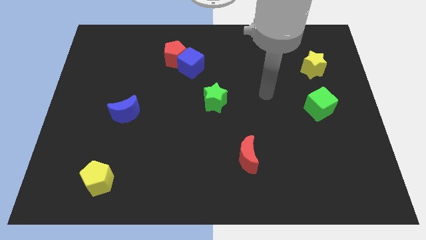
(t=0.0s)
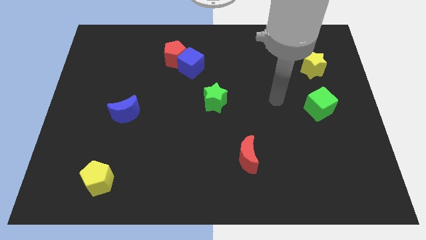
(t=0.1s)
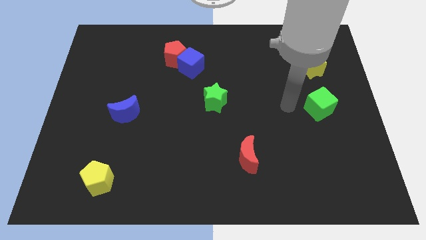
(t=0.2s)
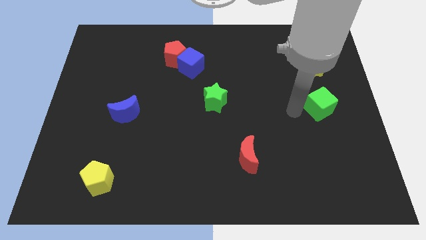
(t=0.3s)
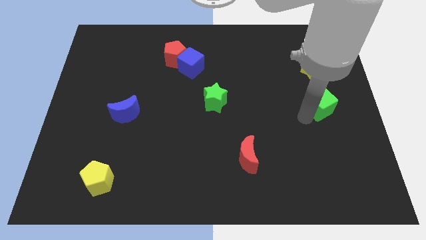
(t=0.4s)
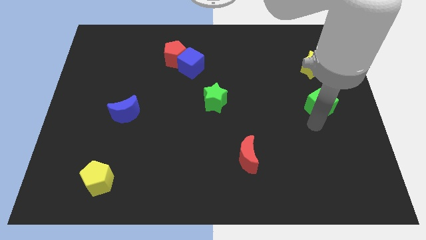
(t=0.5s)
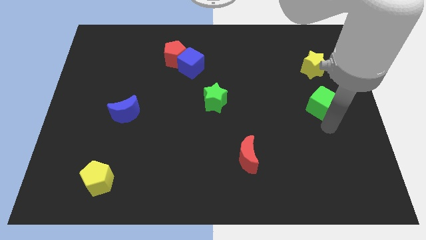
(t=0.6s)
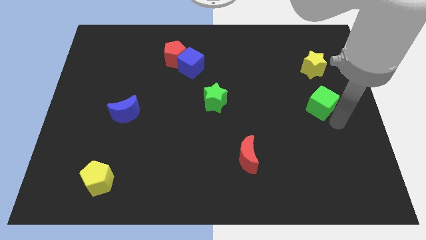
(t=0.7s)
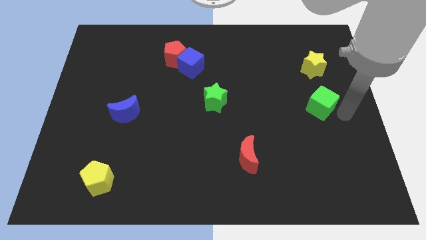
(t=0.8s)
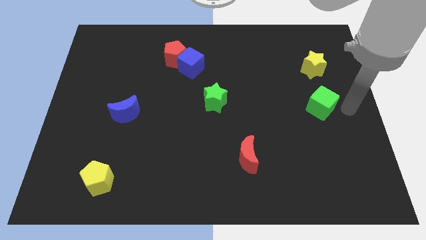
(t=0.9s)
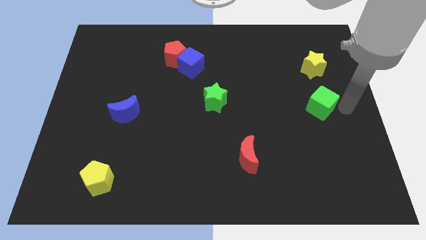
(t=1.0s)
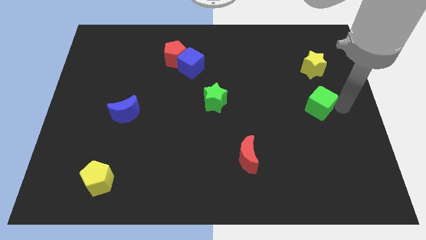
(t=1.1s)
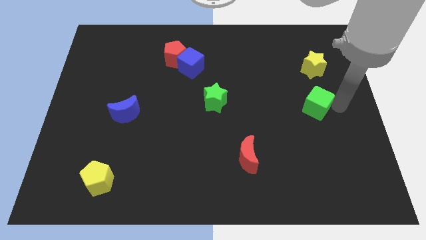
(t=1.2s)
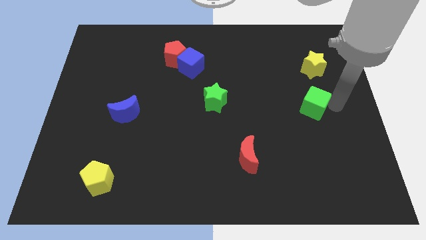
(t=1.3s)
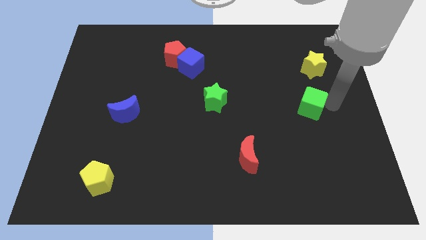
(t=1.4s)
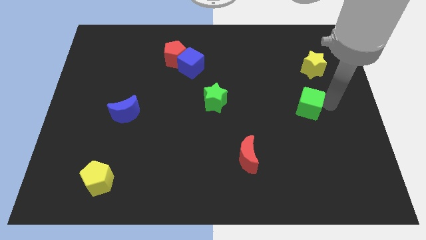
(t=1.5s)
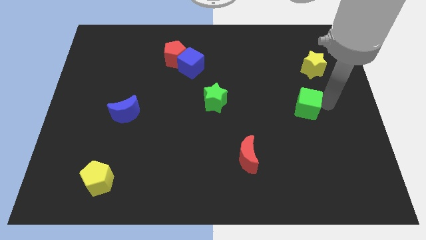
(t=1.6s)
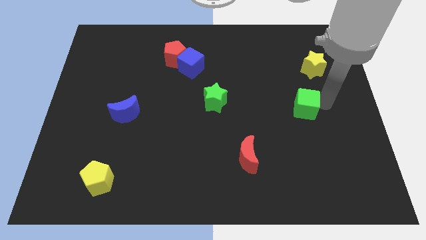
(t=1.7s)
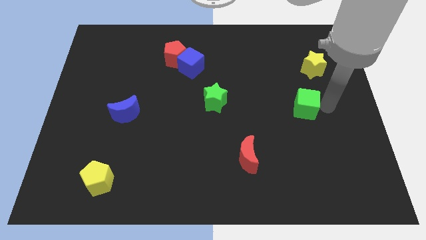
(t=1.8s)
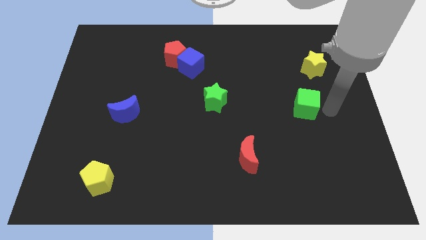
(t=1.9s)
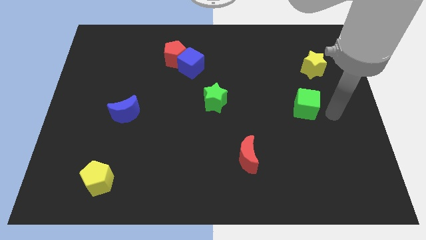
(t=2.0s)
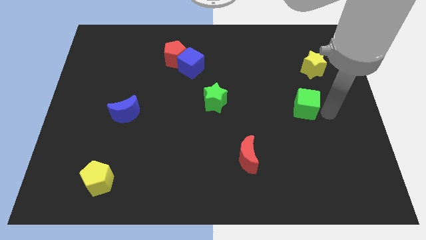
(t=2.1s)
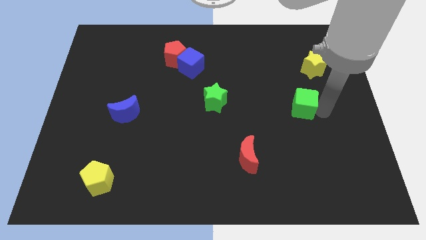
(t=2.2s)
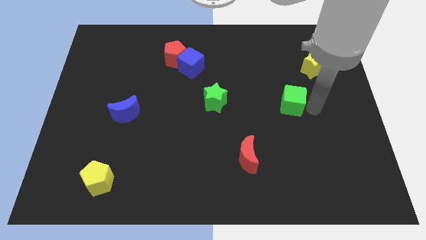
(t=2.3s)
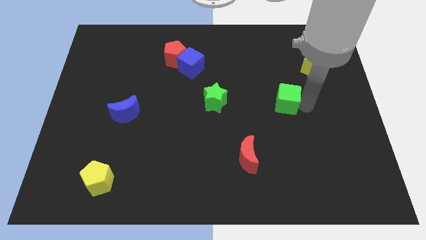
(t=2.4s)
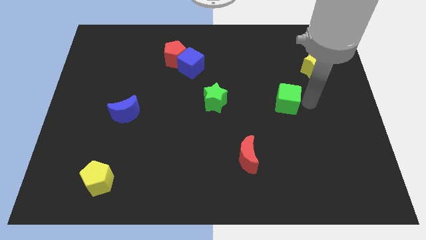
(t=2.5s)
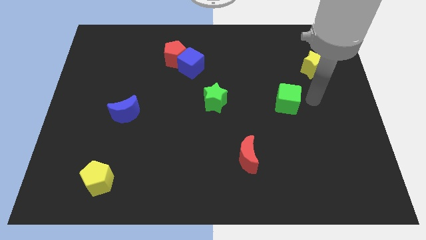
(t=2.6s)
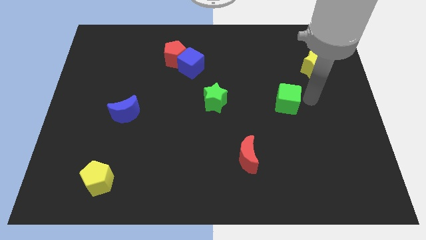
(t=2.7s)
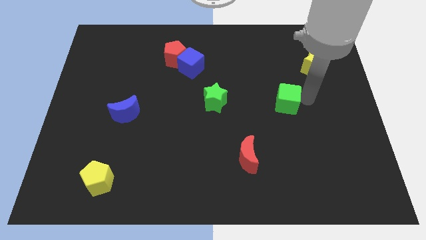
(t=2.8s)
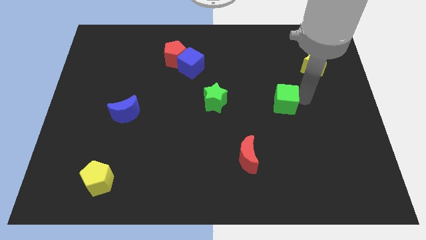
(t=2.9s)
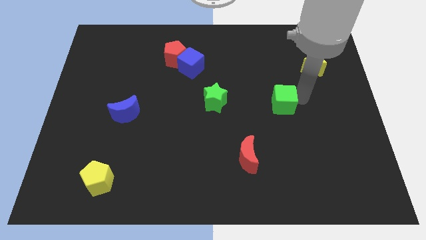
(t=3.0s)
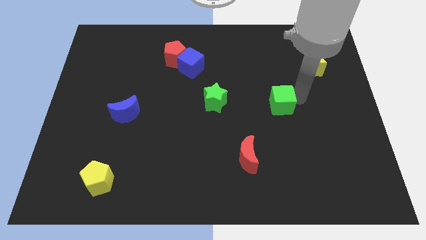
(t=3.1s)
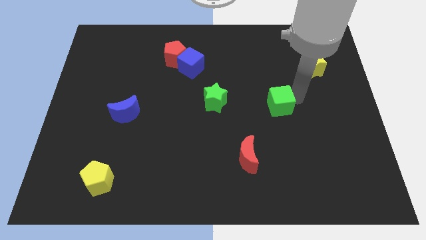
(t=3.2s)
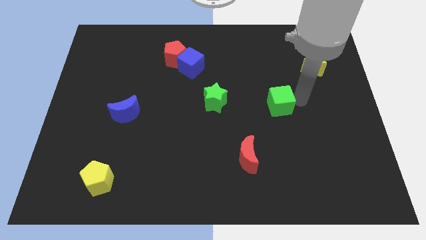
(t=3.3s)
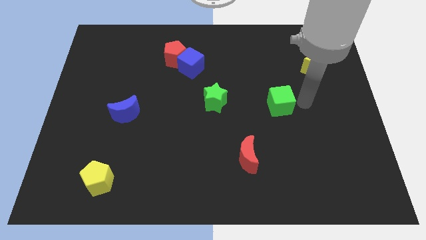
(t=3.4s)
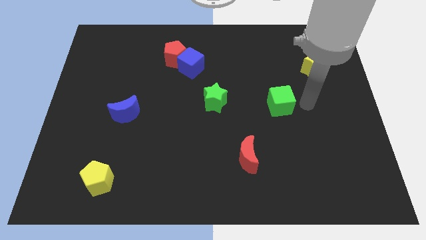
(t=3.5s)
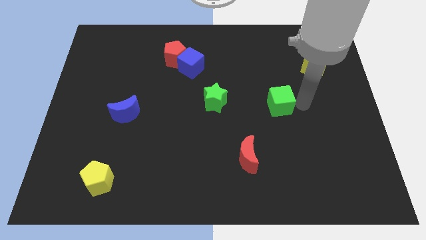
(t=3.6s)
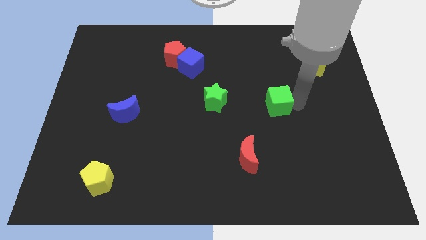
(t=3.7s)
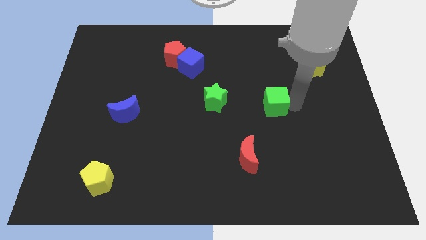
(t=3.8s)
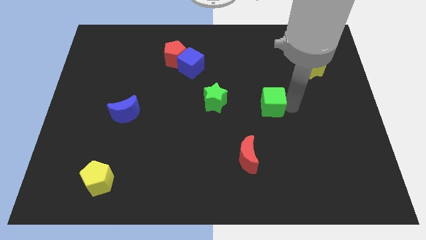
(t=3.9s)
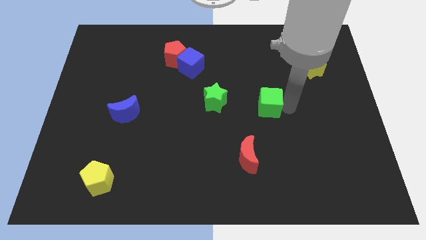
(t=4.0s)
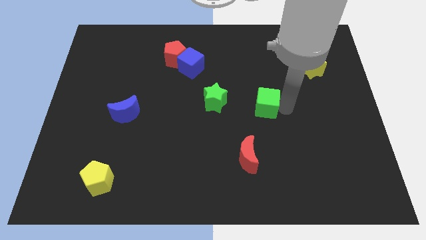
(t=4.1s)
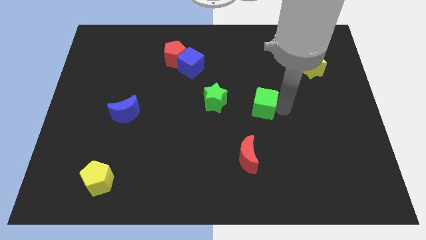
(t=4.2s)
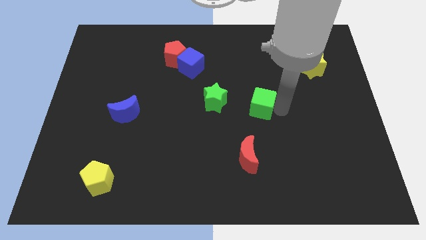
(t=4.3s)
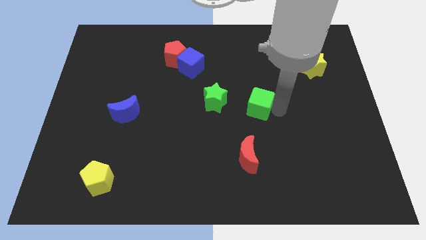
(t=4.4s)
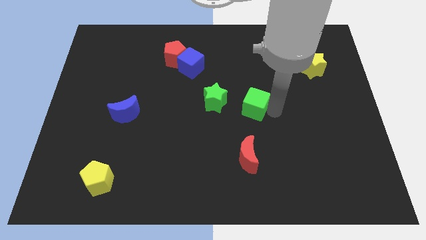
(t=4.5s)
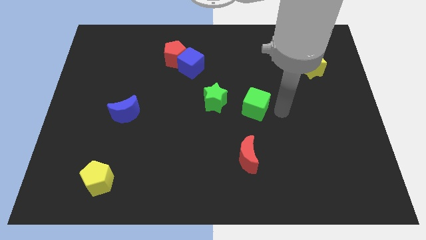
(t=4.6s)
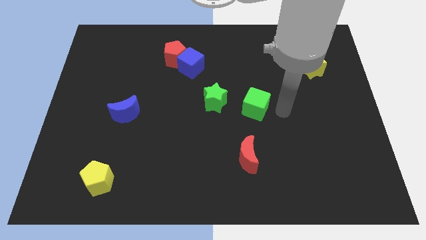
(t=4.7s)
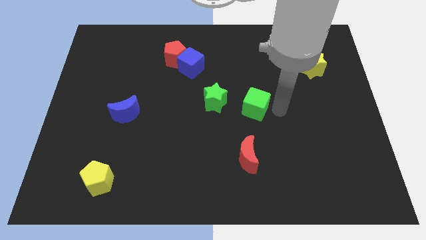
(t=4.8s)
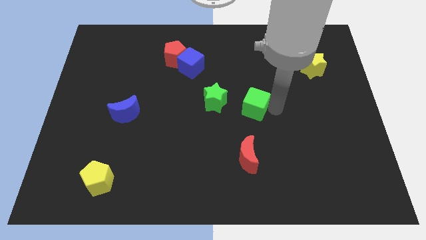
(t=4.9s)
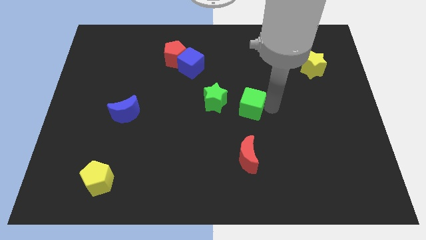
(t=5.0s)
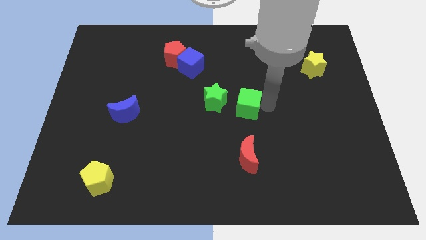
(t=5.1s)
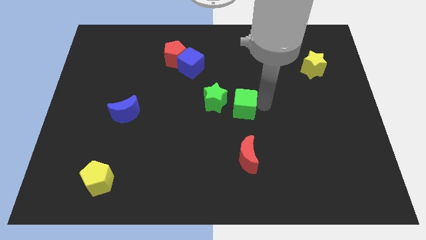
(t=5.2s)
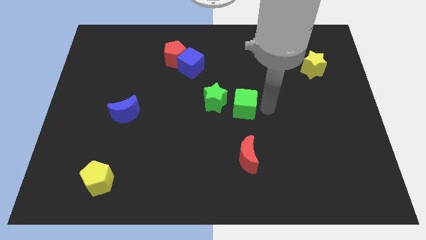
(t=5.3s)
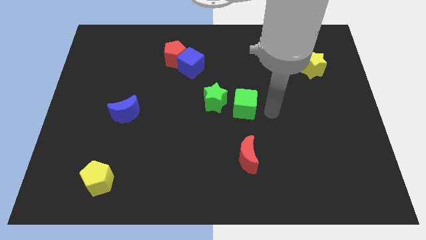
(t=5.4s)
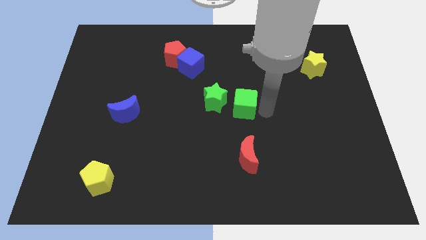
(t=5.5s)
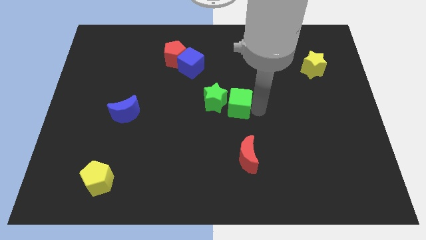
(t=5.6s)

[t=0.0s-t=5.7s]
put the green cube towards the green star

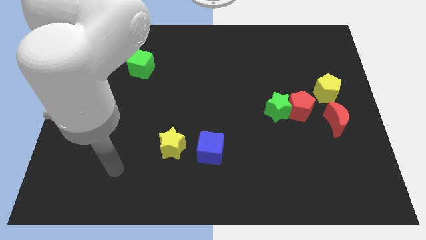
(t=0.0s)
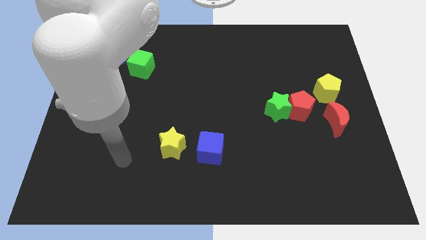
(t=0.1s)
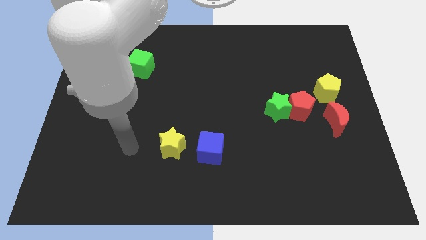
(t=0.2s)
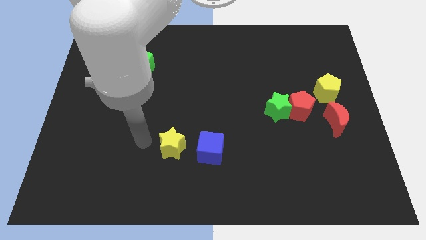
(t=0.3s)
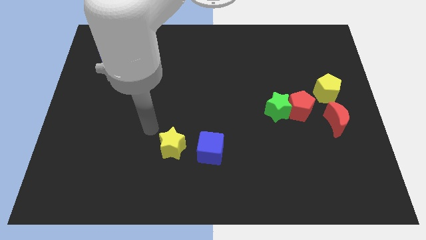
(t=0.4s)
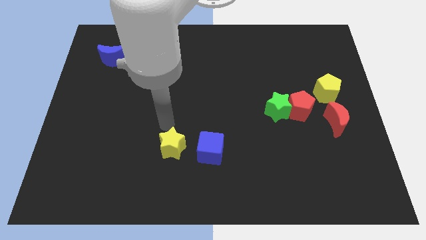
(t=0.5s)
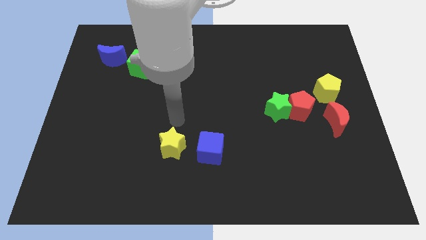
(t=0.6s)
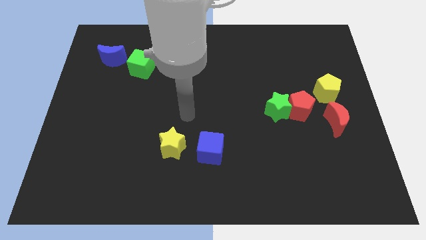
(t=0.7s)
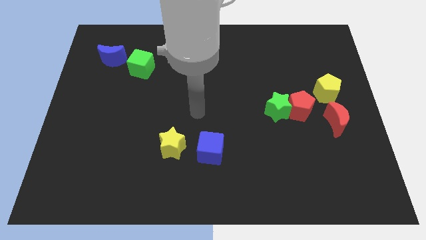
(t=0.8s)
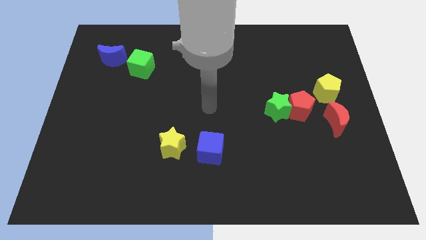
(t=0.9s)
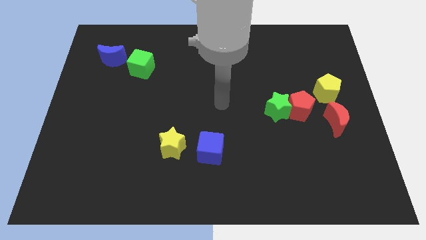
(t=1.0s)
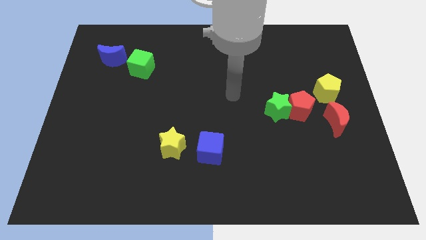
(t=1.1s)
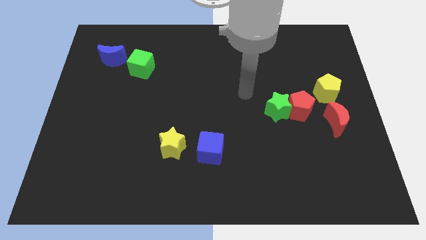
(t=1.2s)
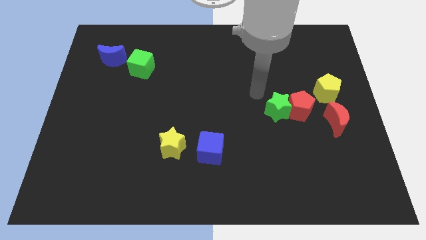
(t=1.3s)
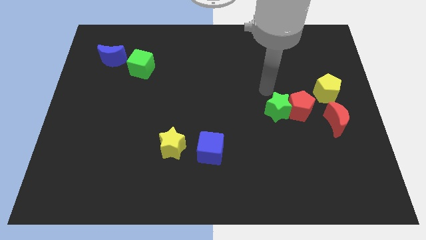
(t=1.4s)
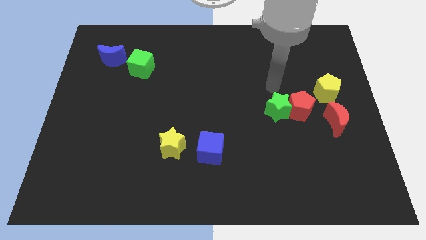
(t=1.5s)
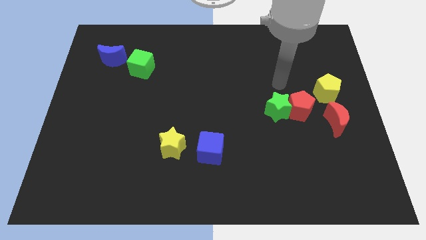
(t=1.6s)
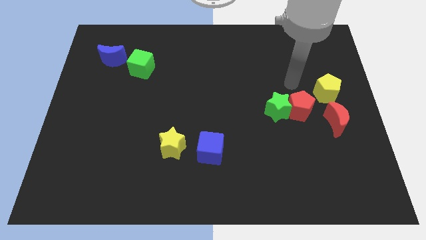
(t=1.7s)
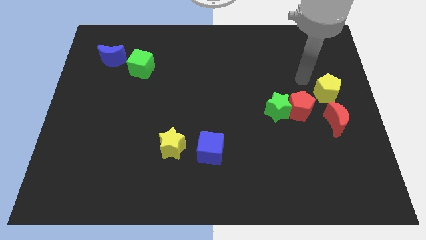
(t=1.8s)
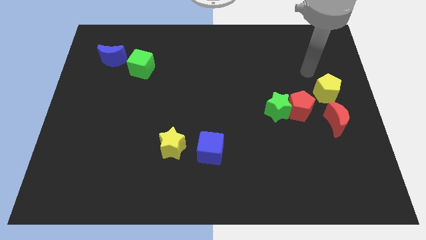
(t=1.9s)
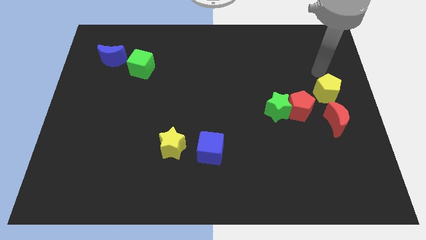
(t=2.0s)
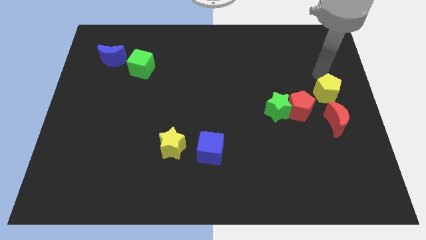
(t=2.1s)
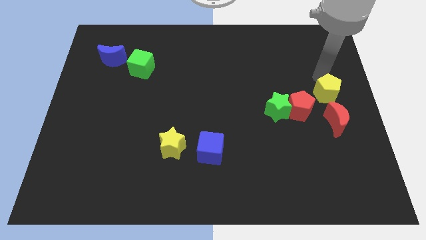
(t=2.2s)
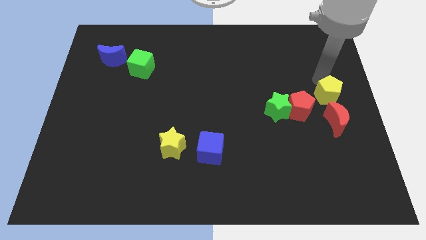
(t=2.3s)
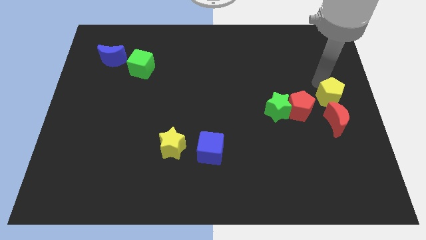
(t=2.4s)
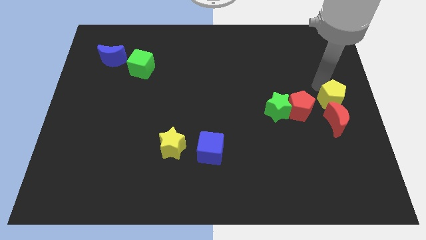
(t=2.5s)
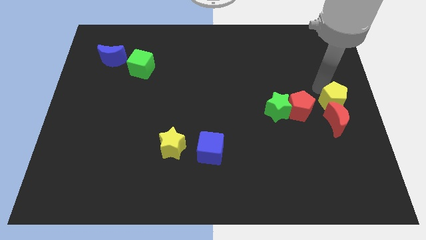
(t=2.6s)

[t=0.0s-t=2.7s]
move the yellow pentagon next to the red moon
